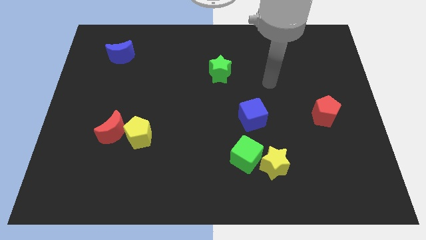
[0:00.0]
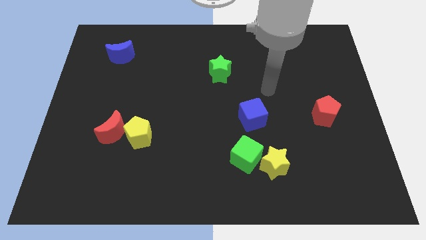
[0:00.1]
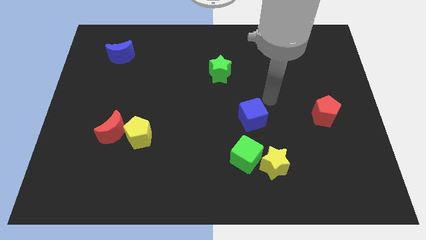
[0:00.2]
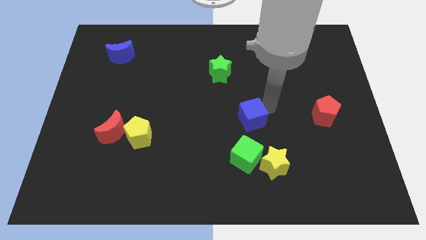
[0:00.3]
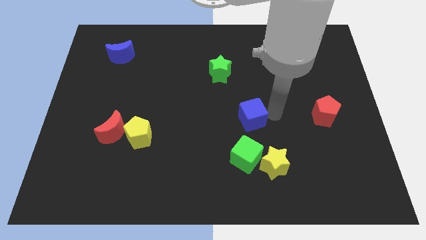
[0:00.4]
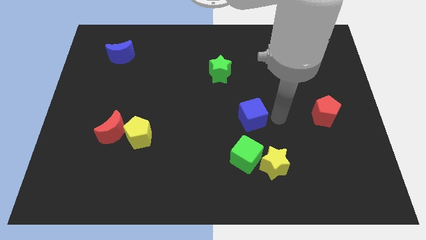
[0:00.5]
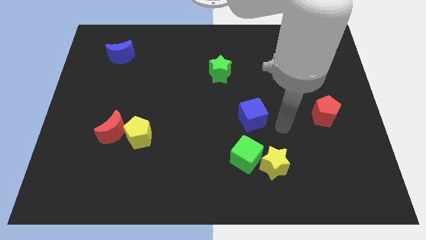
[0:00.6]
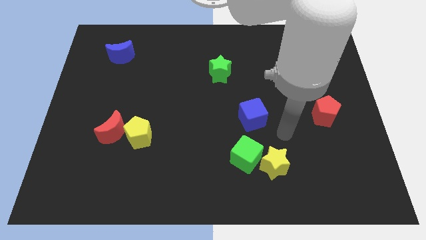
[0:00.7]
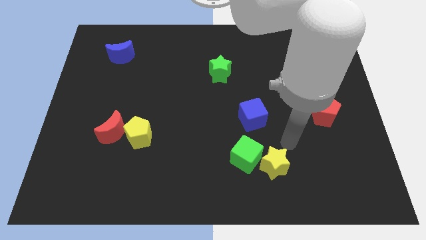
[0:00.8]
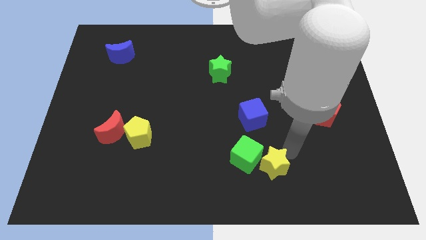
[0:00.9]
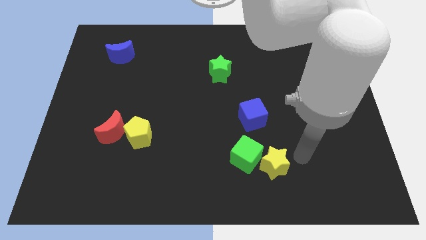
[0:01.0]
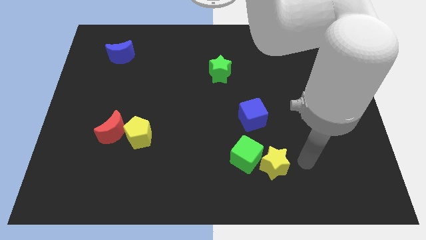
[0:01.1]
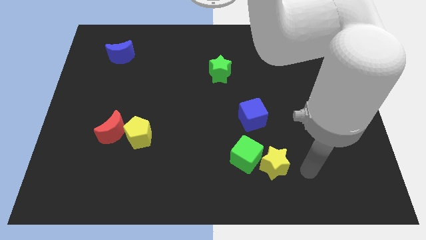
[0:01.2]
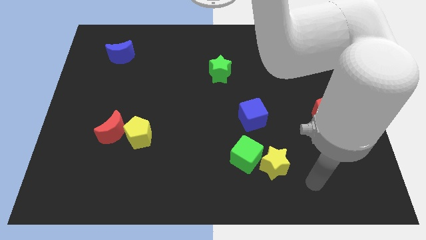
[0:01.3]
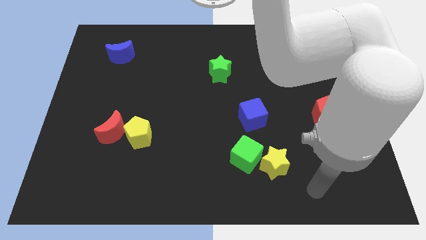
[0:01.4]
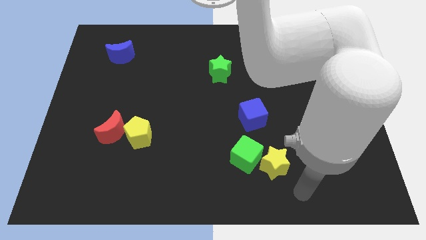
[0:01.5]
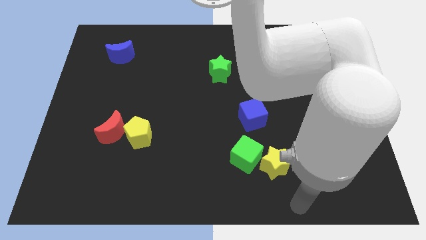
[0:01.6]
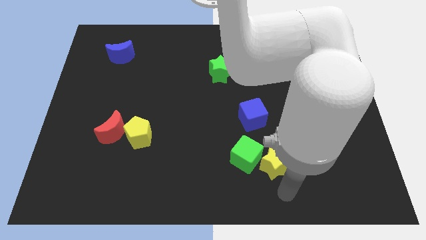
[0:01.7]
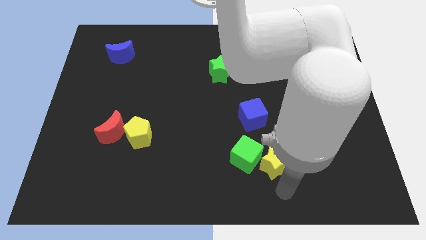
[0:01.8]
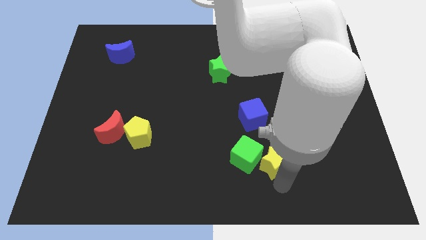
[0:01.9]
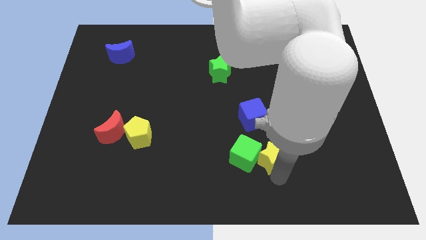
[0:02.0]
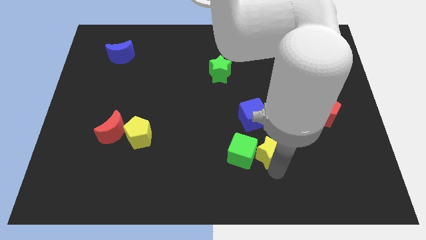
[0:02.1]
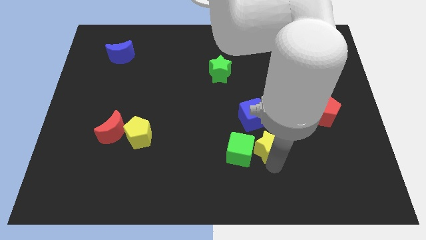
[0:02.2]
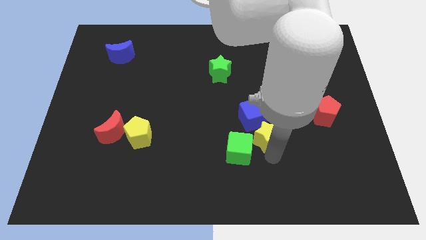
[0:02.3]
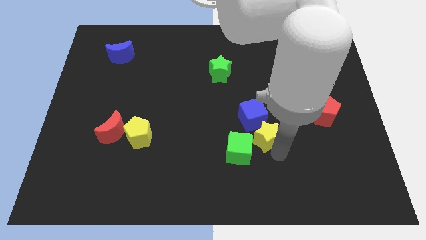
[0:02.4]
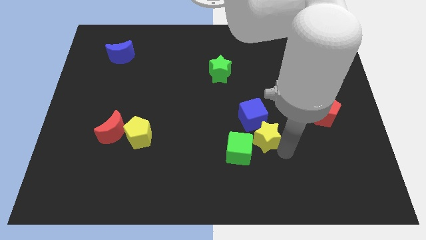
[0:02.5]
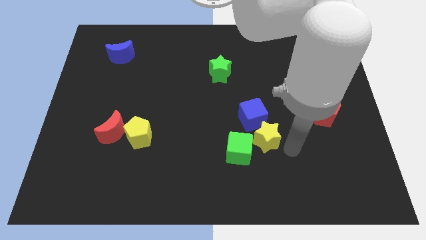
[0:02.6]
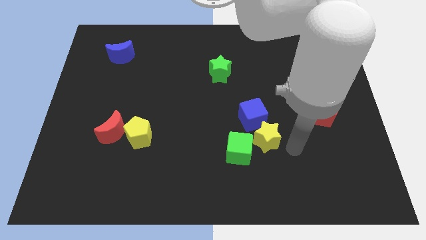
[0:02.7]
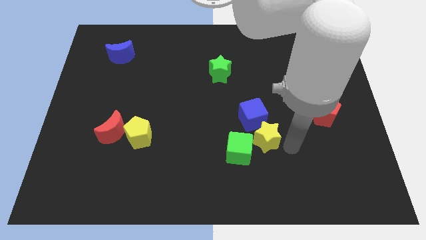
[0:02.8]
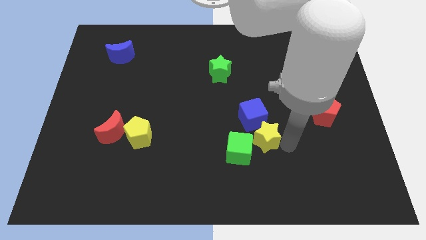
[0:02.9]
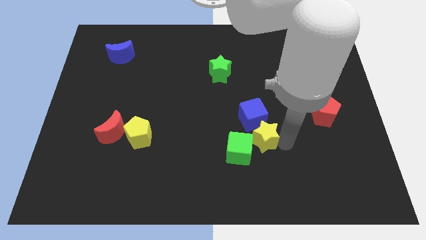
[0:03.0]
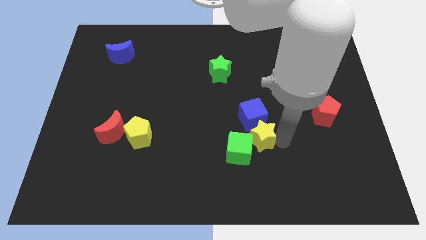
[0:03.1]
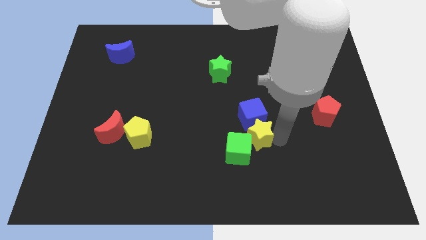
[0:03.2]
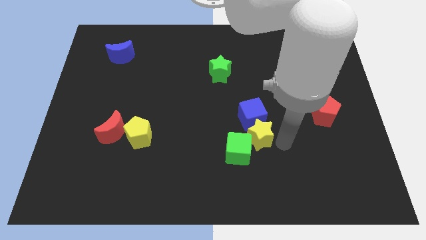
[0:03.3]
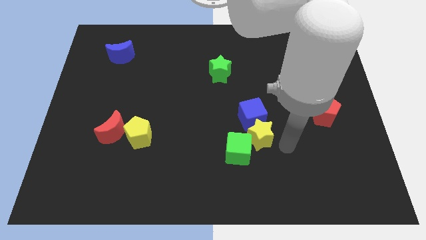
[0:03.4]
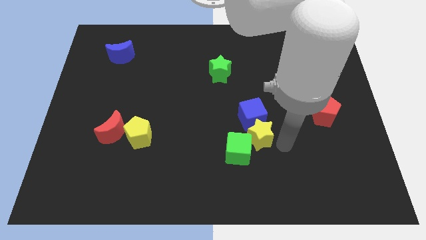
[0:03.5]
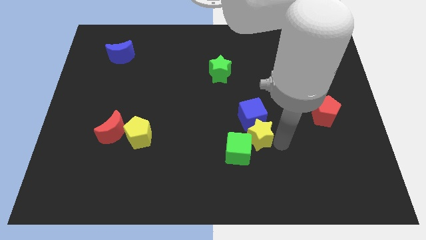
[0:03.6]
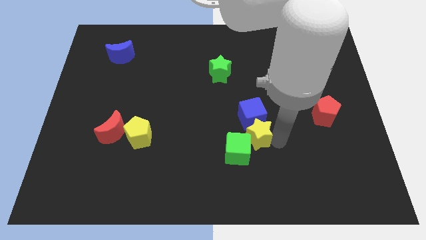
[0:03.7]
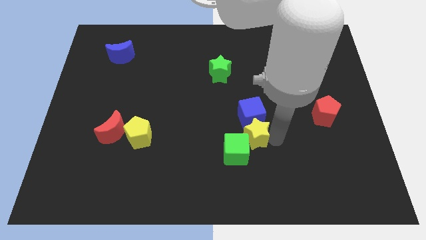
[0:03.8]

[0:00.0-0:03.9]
push the yellow star a bit up and to the left

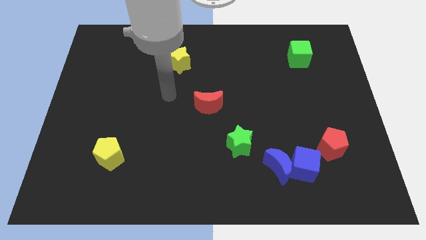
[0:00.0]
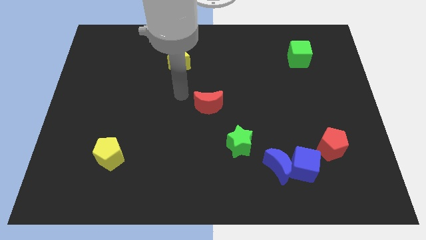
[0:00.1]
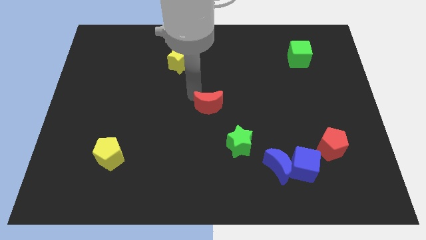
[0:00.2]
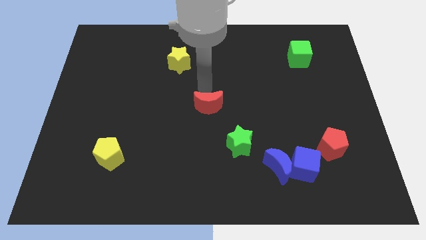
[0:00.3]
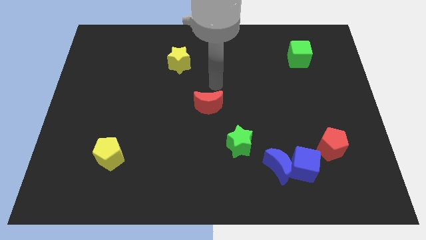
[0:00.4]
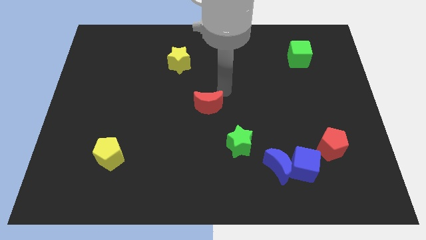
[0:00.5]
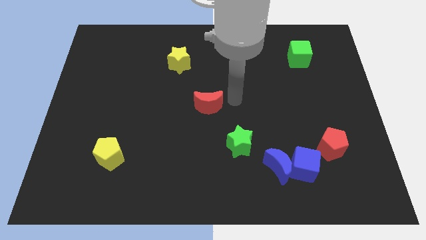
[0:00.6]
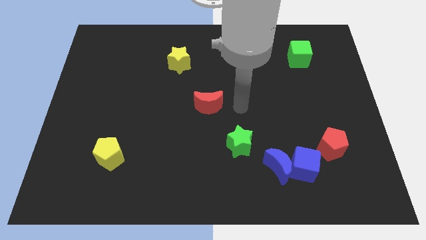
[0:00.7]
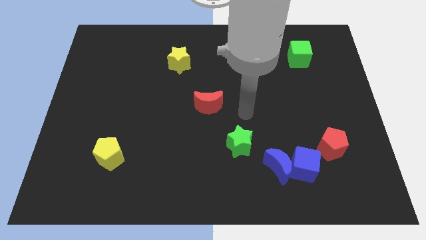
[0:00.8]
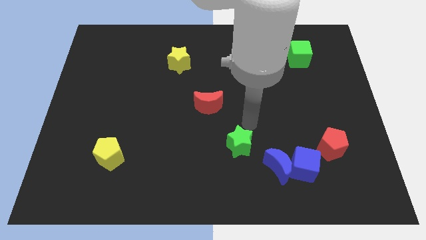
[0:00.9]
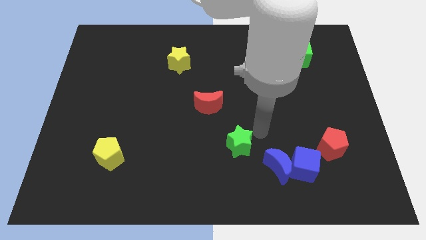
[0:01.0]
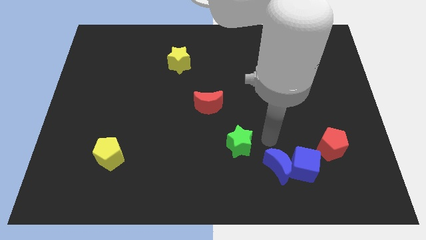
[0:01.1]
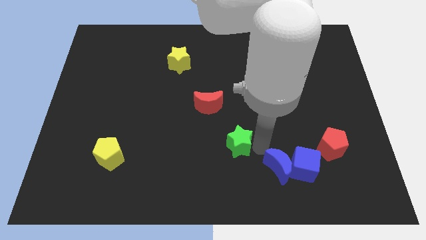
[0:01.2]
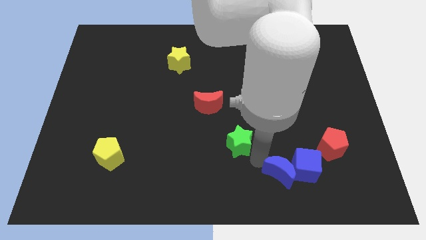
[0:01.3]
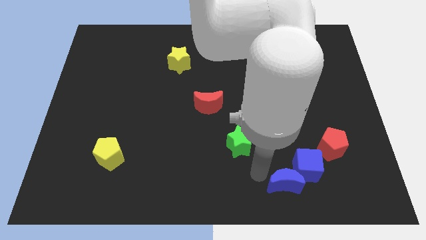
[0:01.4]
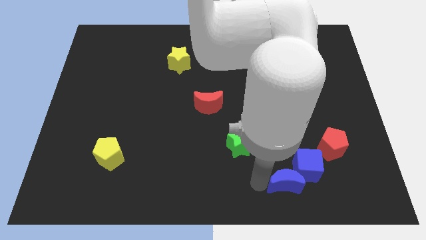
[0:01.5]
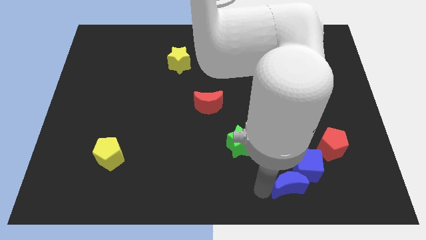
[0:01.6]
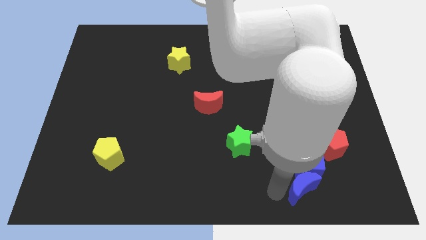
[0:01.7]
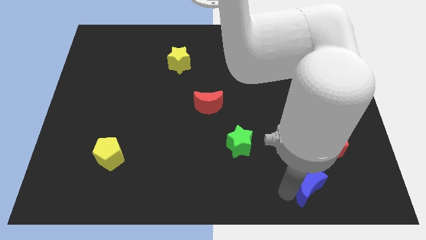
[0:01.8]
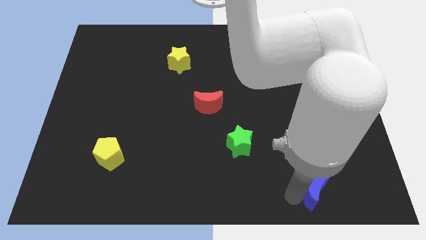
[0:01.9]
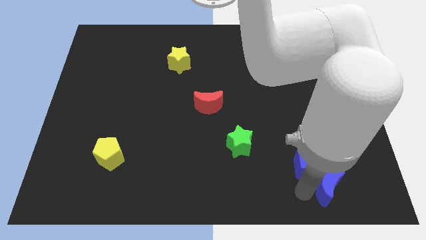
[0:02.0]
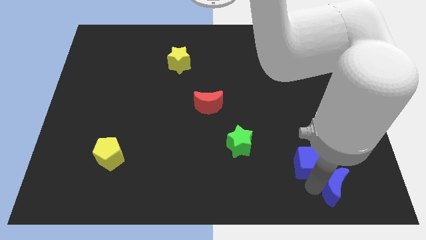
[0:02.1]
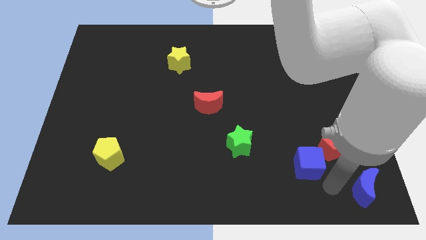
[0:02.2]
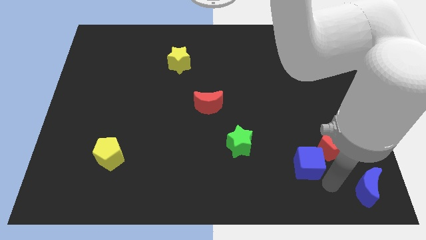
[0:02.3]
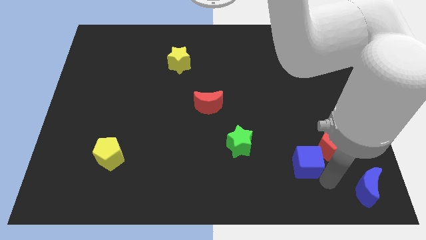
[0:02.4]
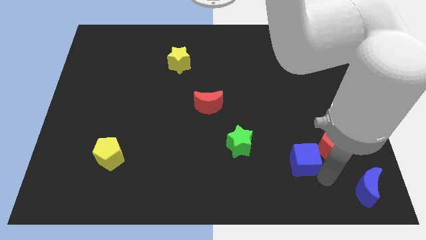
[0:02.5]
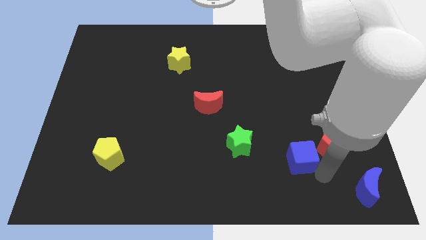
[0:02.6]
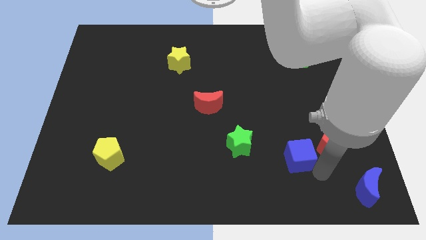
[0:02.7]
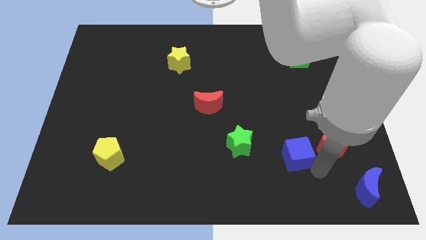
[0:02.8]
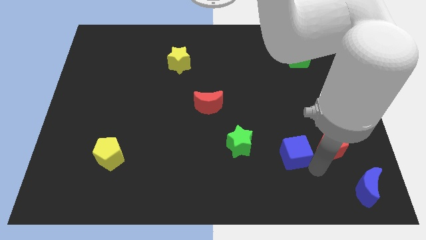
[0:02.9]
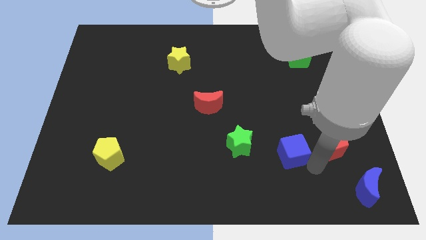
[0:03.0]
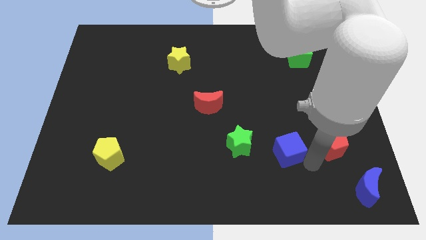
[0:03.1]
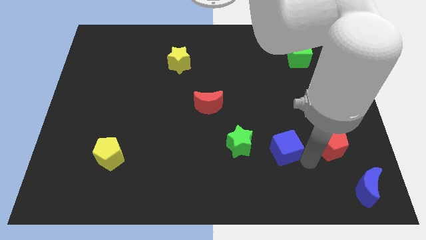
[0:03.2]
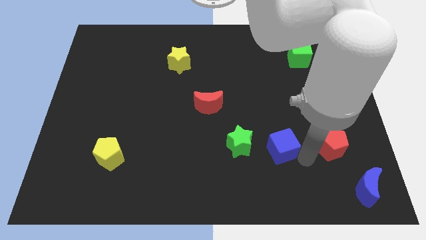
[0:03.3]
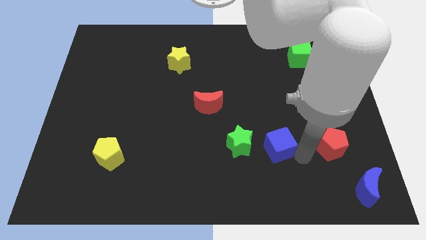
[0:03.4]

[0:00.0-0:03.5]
slide the blue cube diagonally upwards and to the left a little

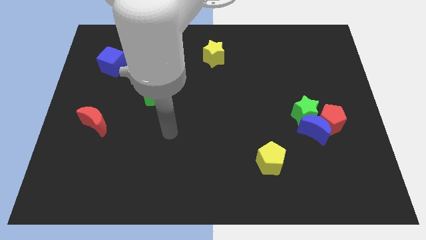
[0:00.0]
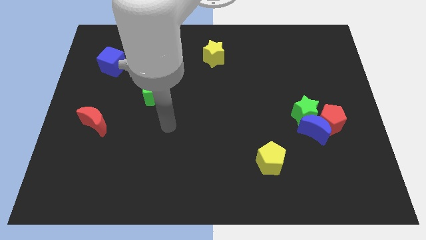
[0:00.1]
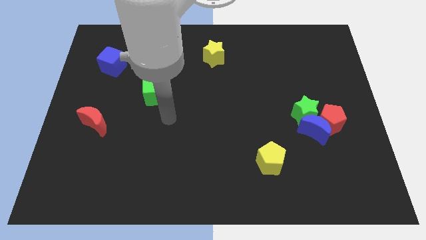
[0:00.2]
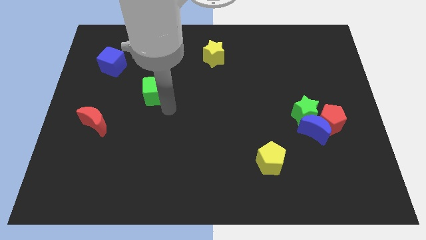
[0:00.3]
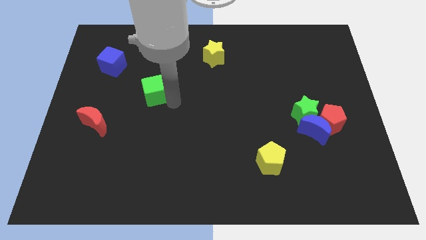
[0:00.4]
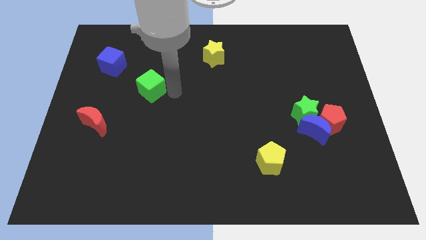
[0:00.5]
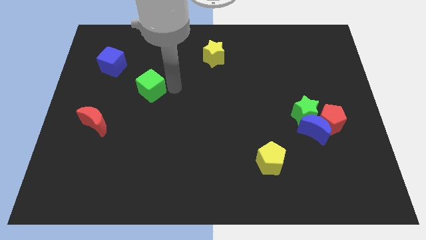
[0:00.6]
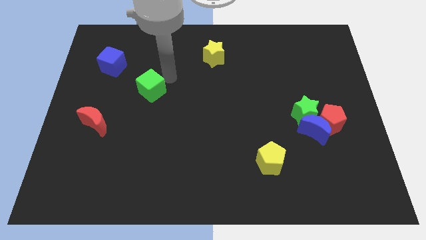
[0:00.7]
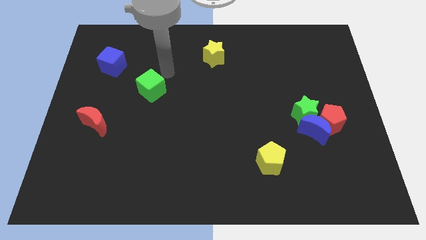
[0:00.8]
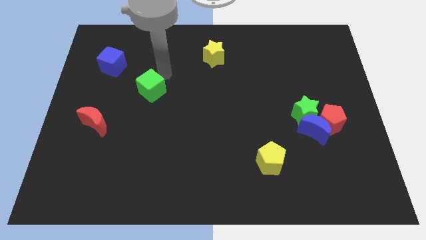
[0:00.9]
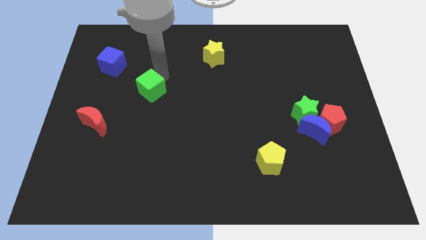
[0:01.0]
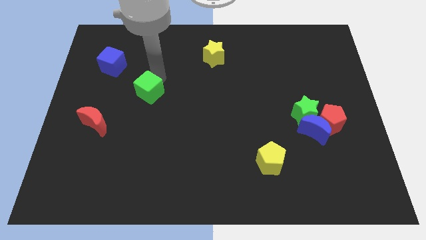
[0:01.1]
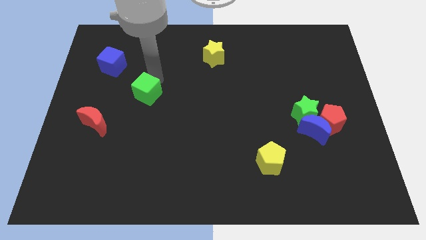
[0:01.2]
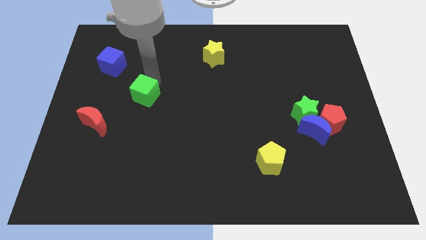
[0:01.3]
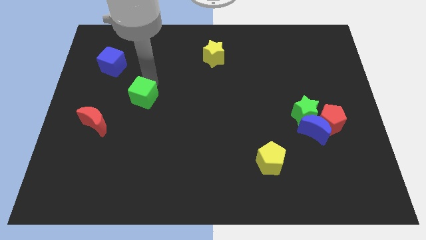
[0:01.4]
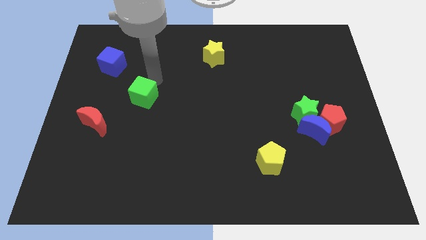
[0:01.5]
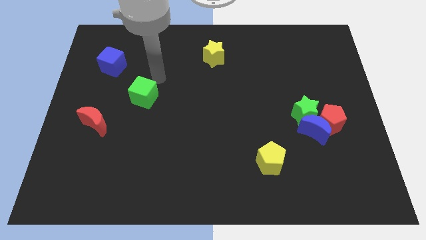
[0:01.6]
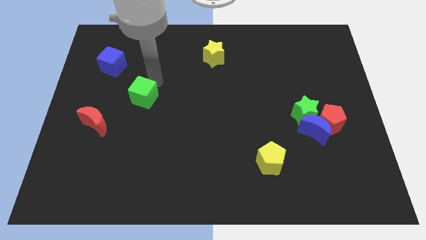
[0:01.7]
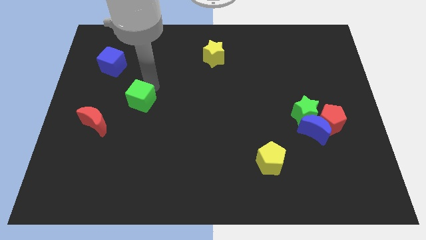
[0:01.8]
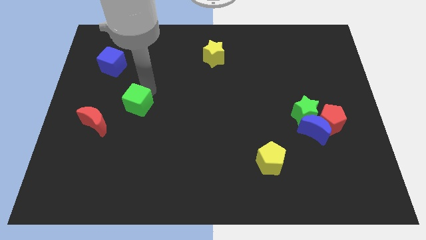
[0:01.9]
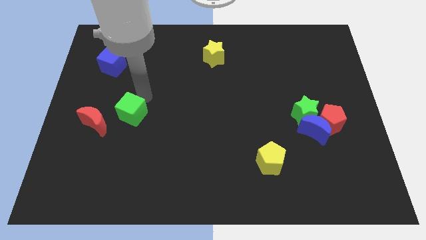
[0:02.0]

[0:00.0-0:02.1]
push the green cube somewhat diagonally downwards and left
